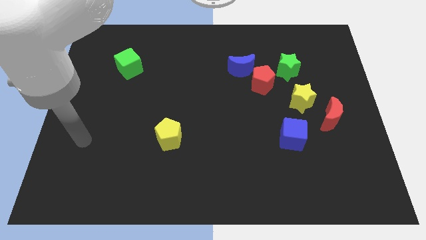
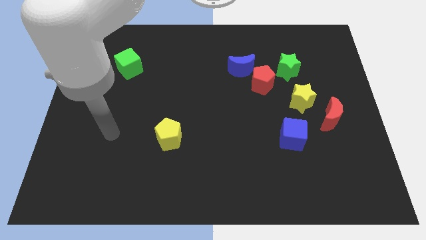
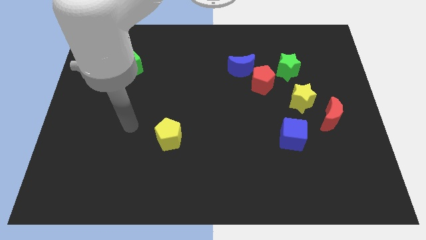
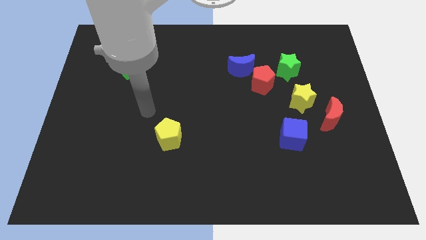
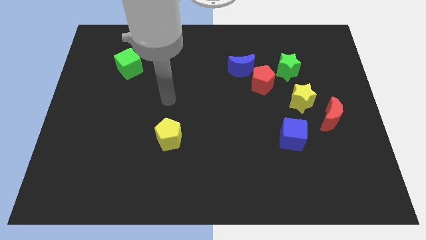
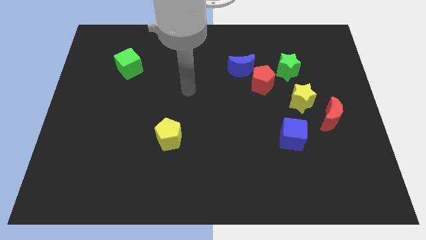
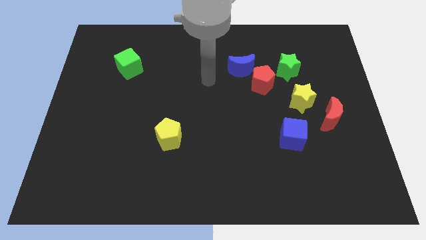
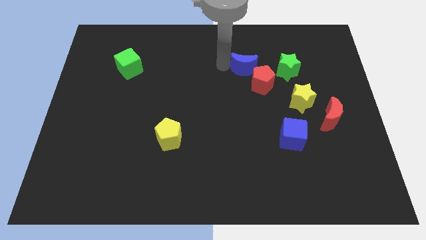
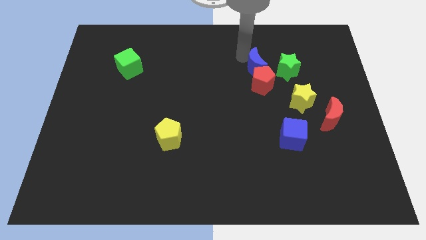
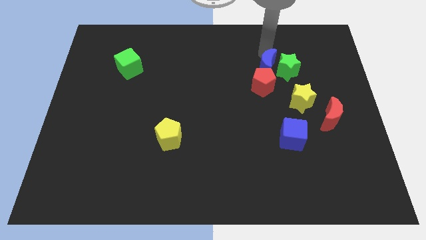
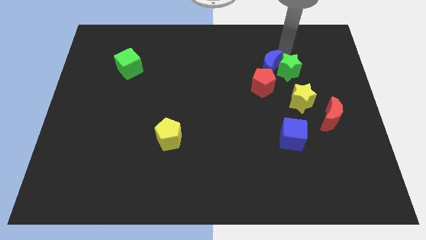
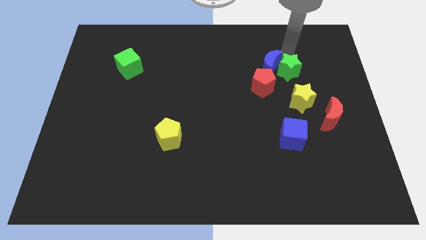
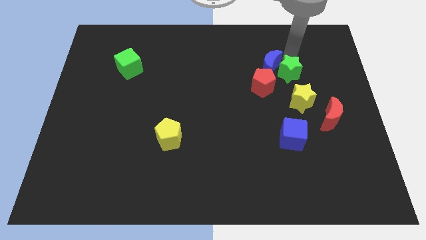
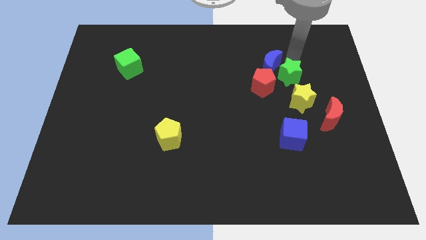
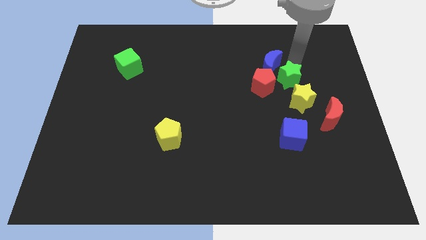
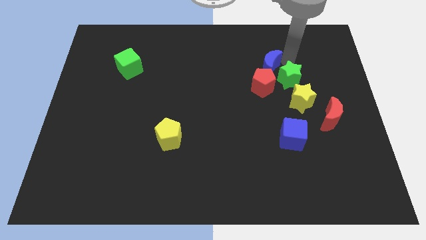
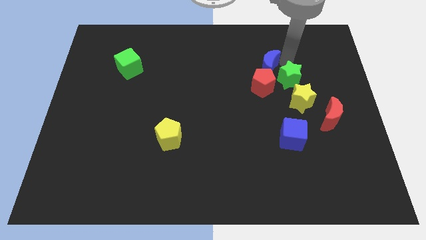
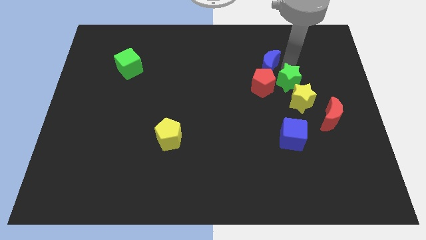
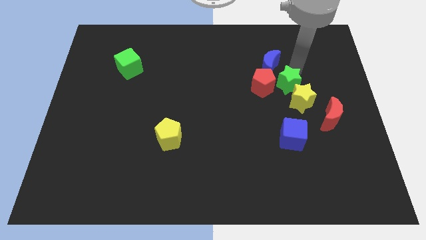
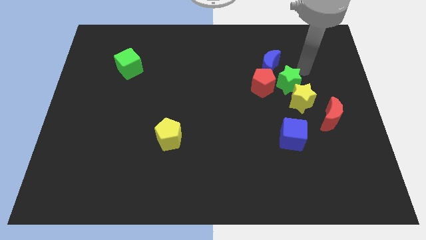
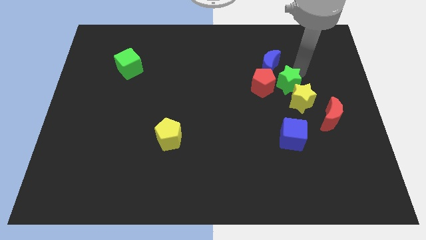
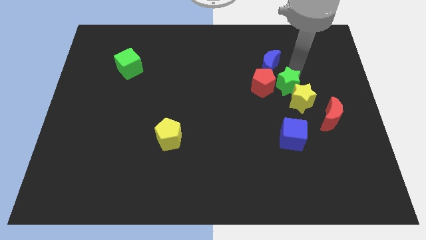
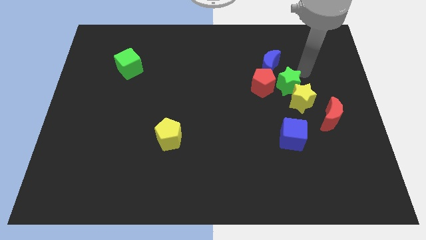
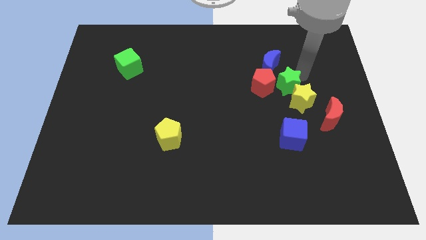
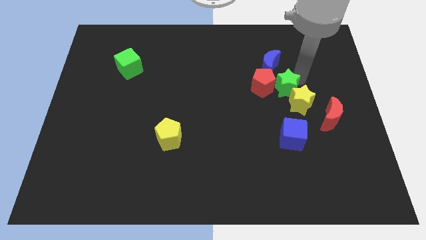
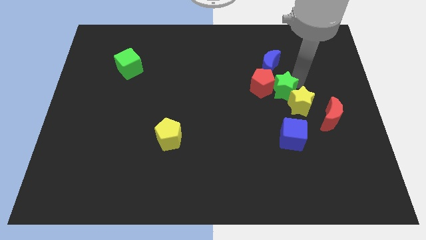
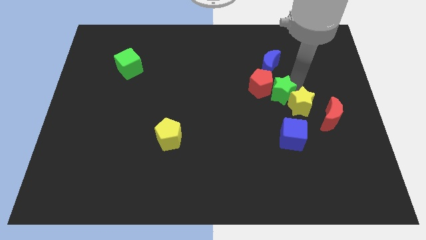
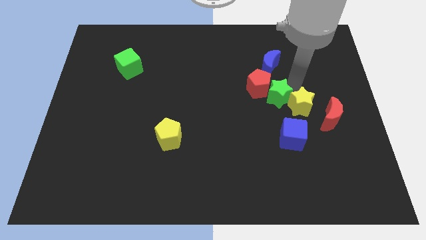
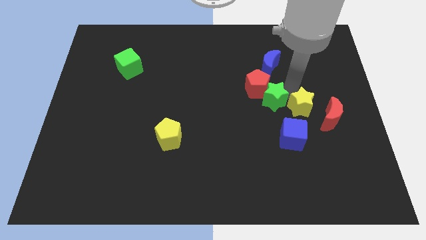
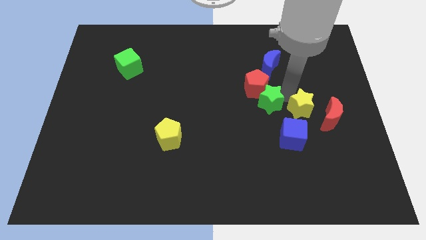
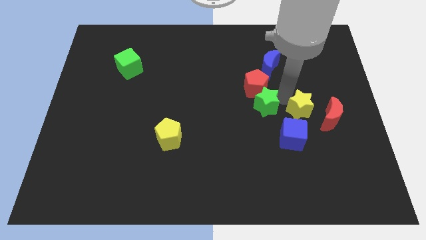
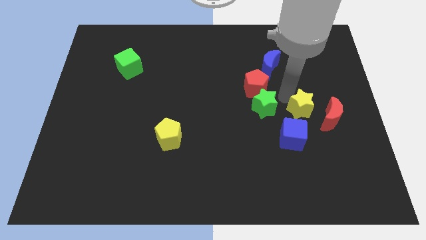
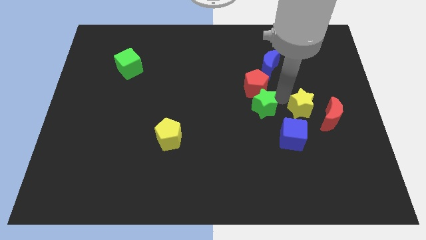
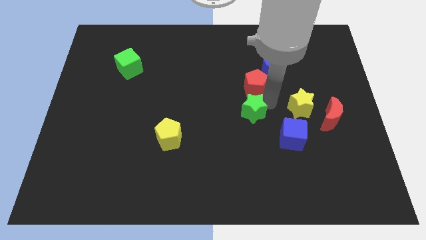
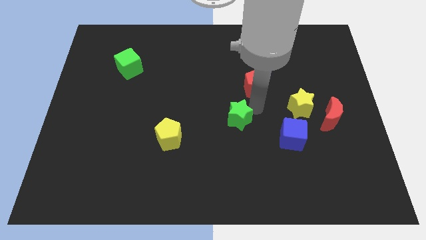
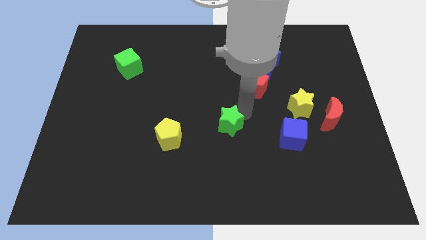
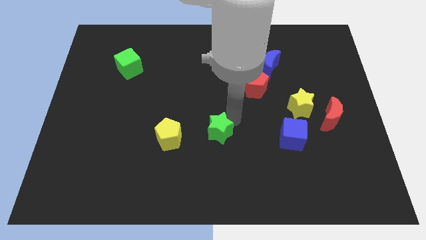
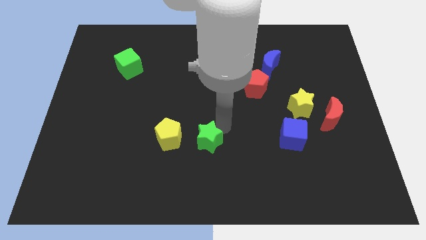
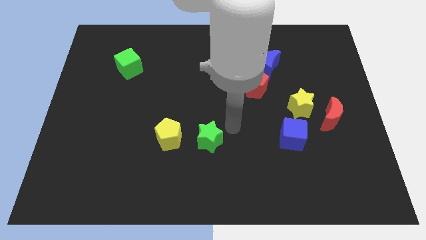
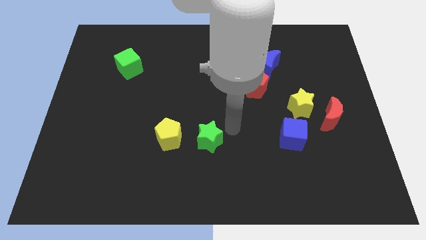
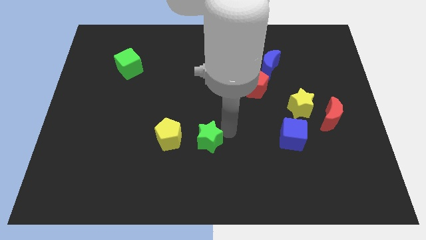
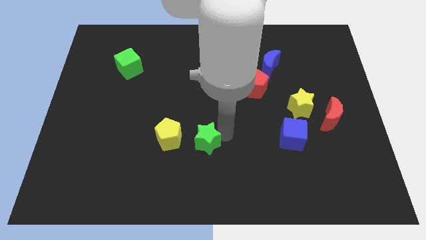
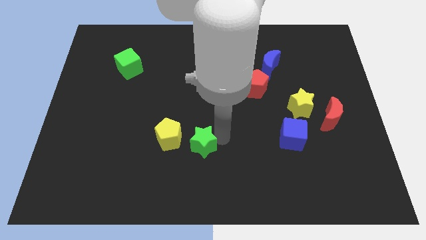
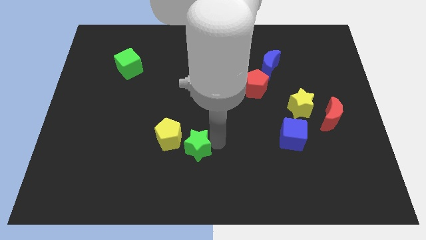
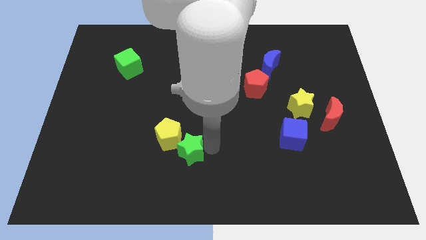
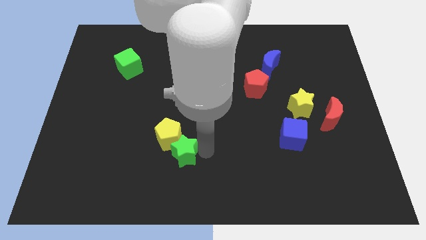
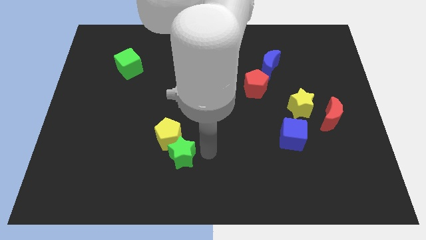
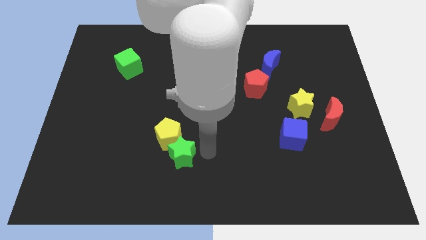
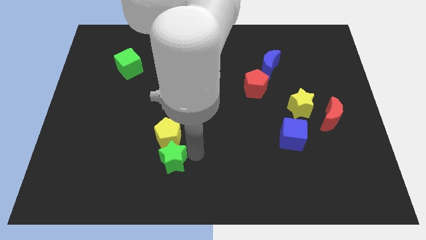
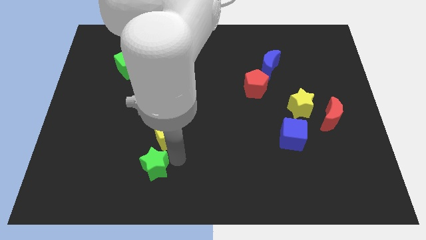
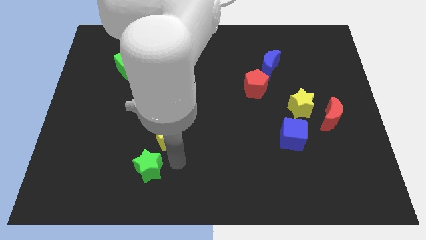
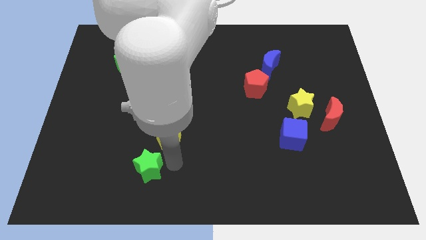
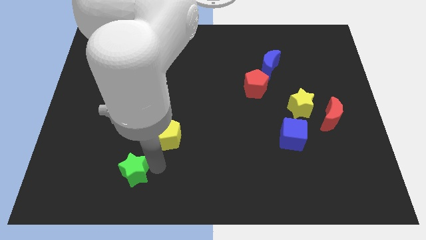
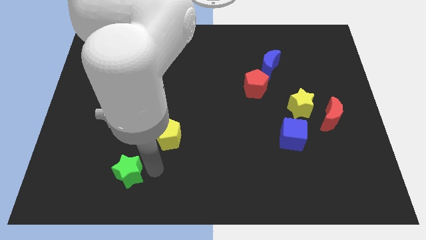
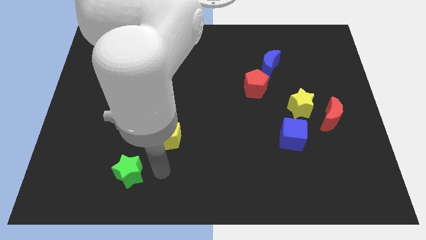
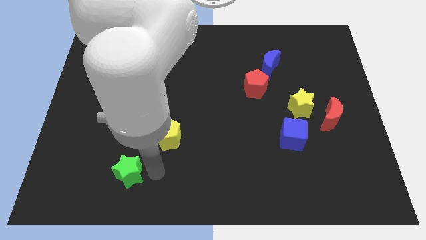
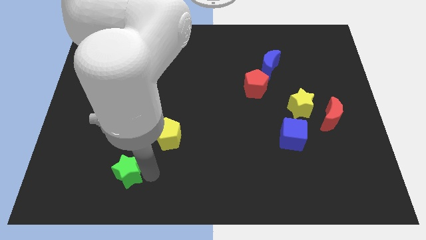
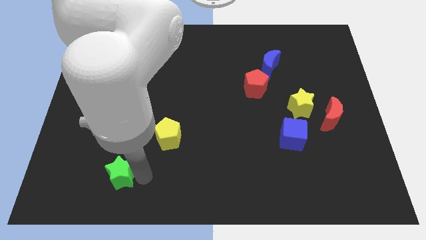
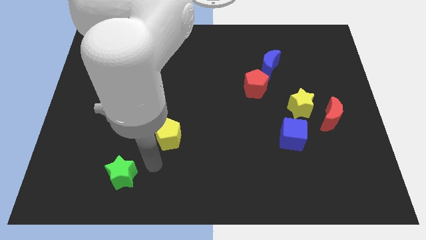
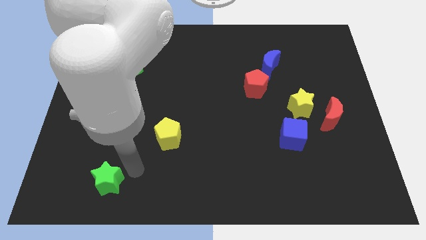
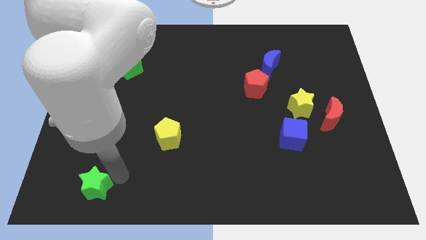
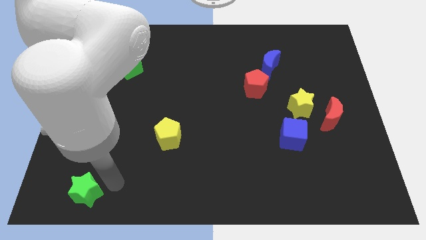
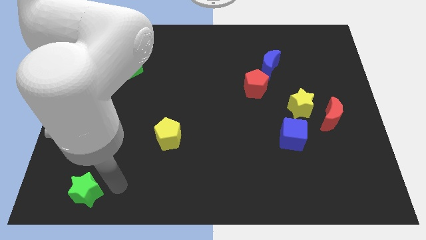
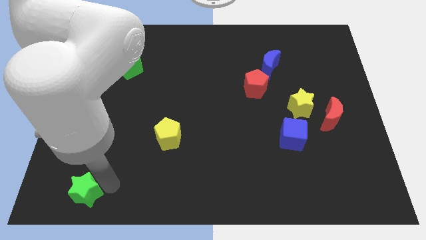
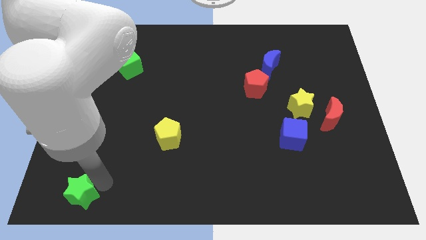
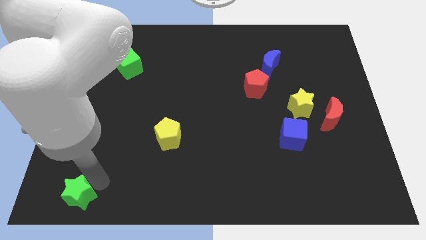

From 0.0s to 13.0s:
move the green star to the bottom left

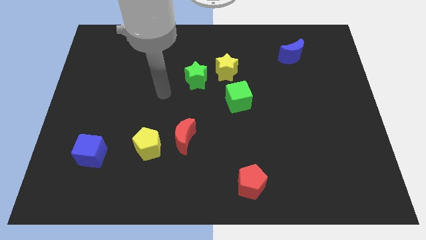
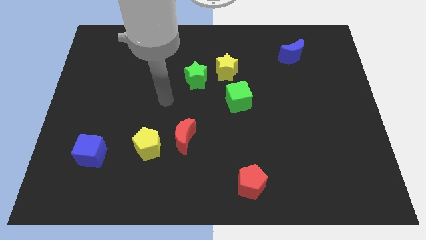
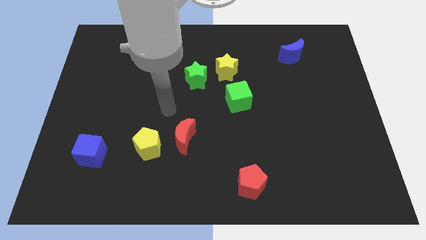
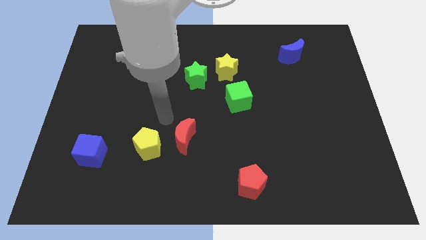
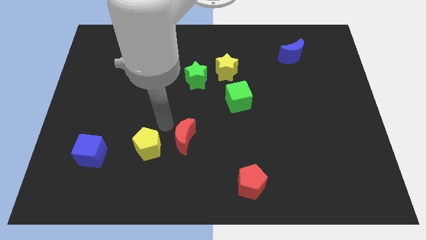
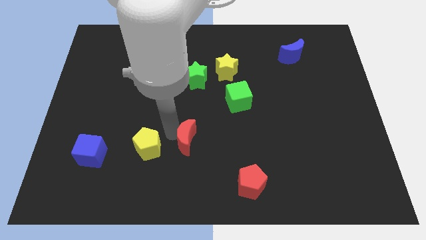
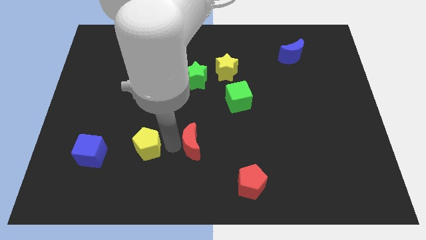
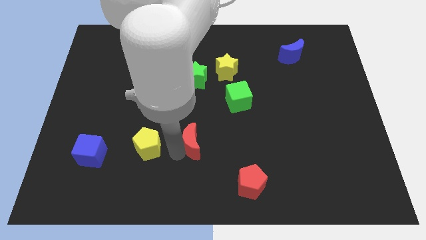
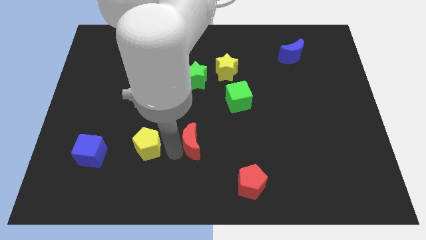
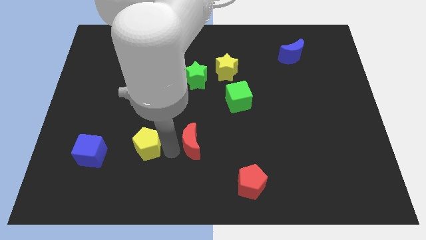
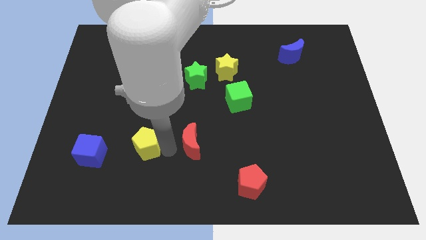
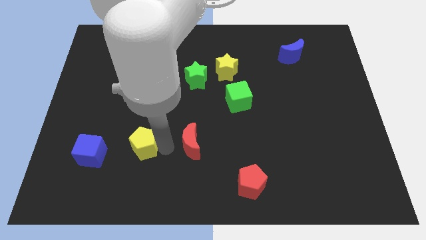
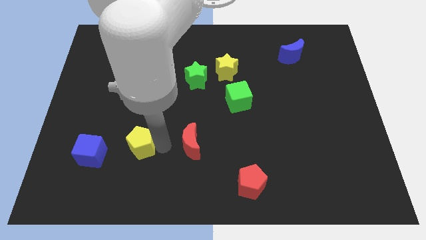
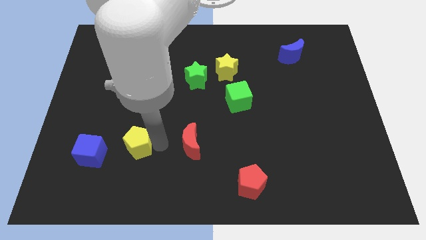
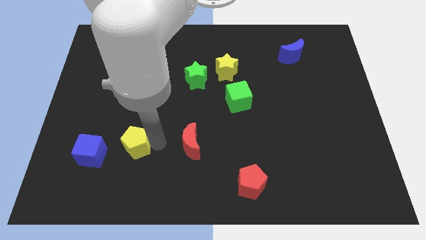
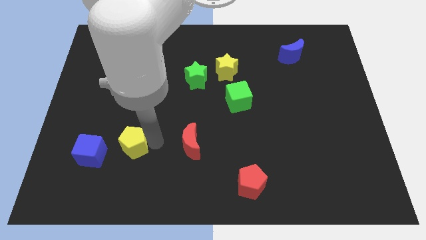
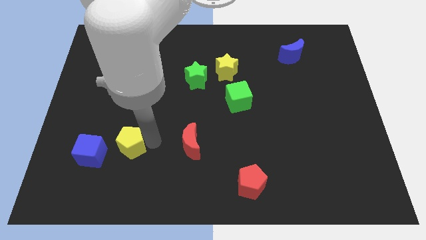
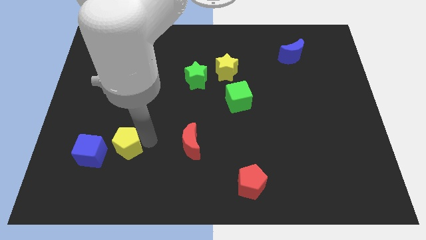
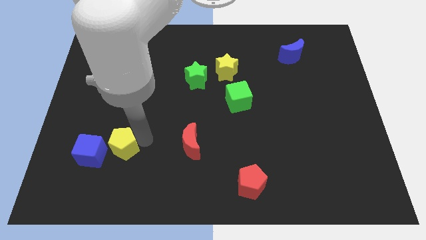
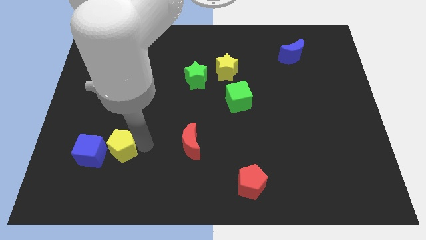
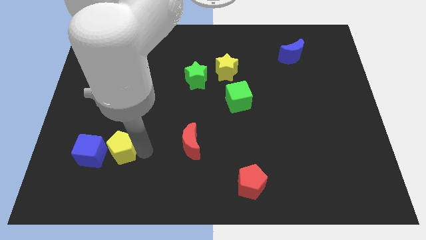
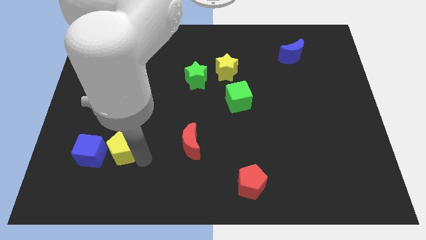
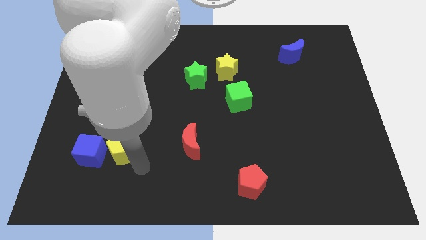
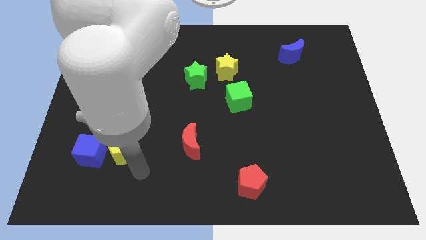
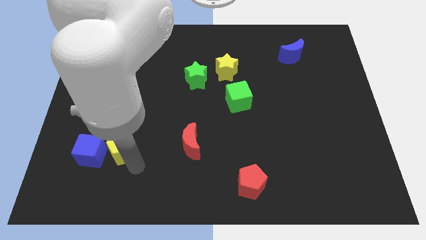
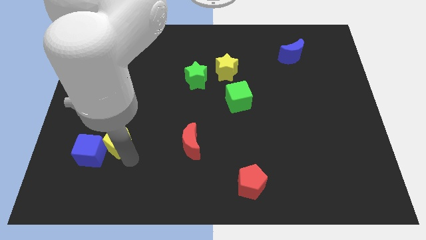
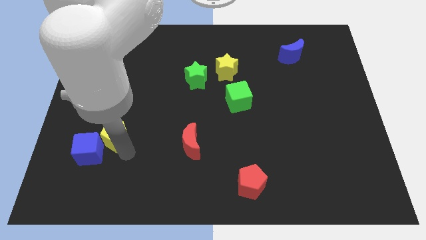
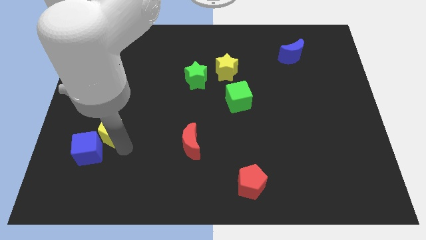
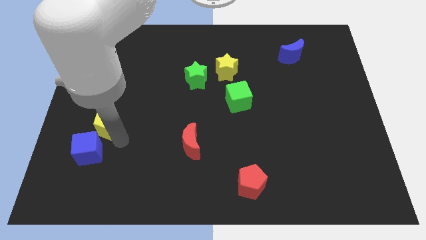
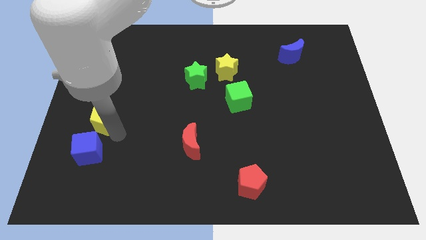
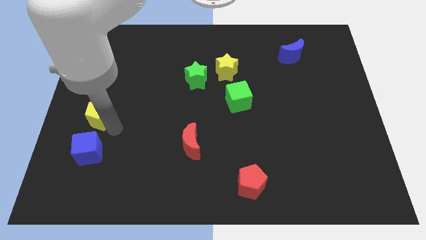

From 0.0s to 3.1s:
slide the yellow pentagon to the left side
